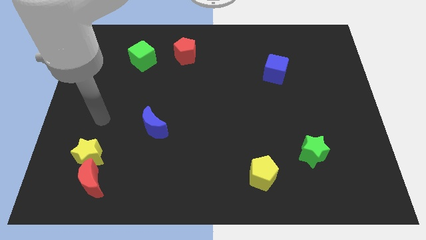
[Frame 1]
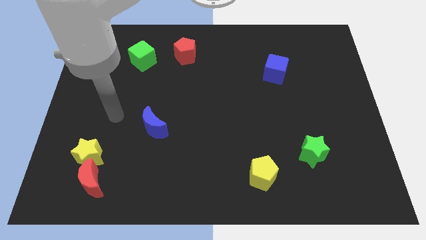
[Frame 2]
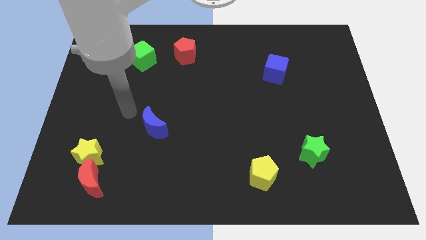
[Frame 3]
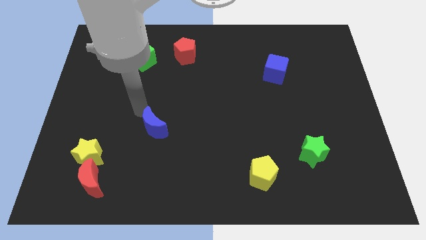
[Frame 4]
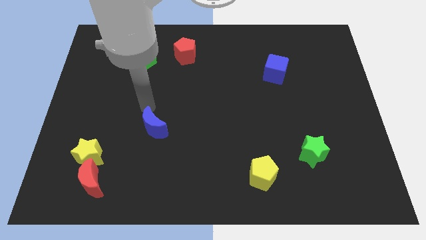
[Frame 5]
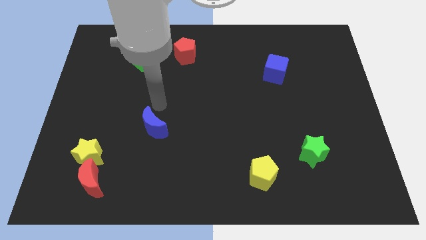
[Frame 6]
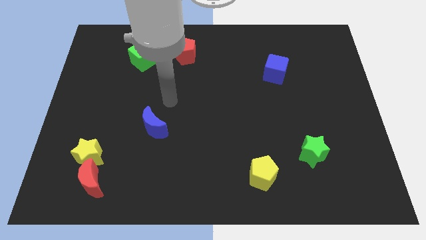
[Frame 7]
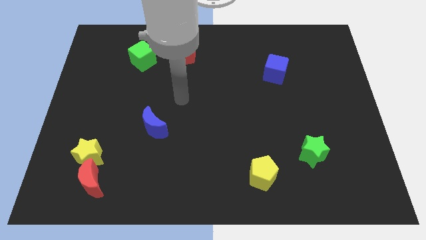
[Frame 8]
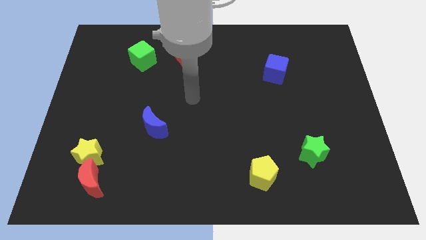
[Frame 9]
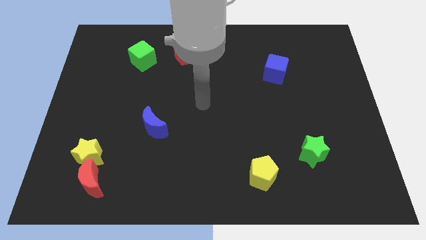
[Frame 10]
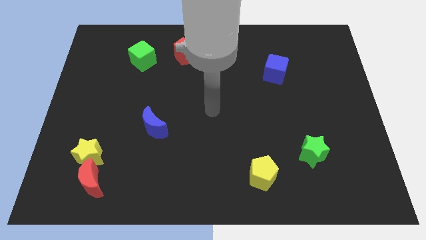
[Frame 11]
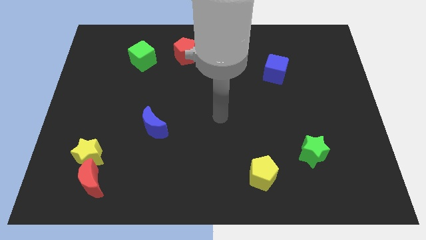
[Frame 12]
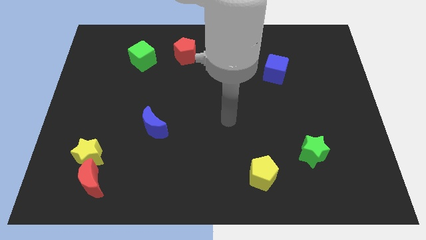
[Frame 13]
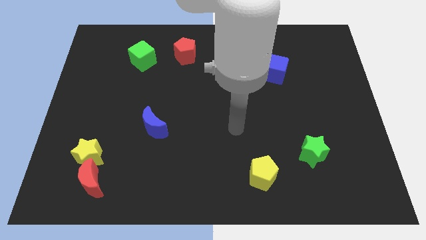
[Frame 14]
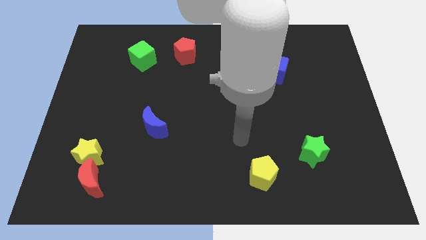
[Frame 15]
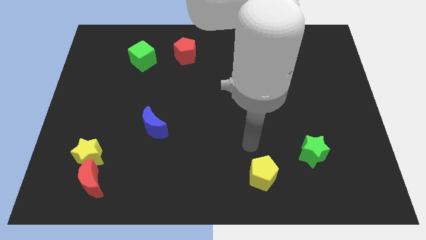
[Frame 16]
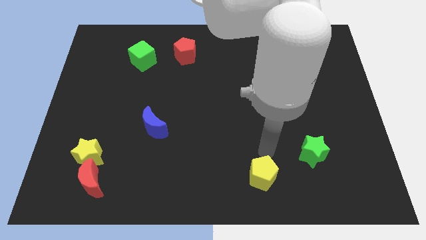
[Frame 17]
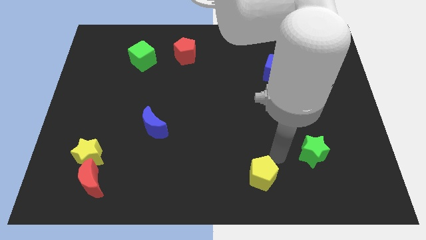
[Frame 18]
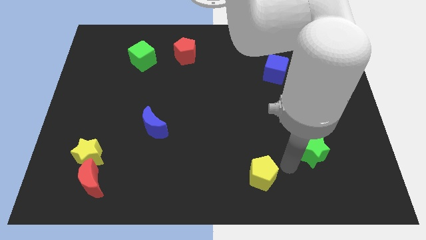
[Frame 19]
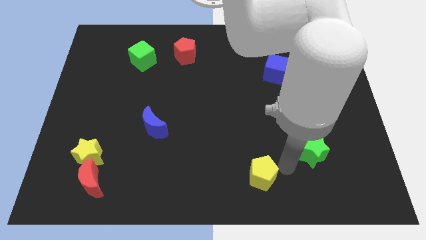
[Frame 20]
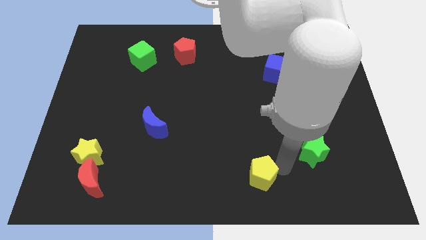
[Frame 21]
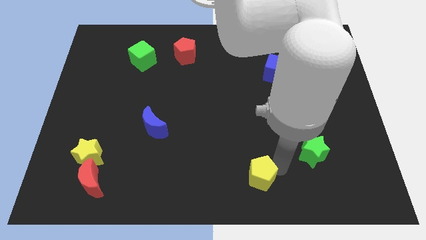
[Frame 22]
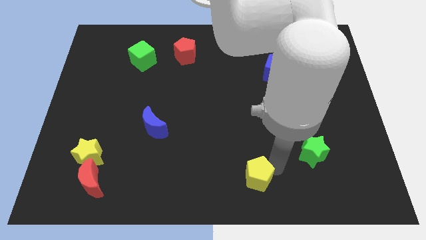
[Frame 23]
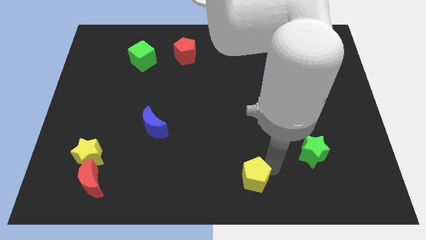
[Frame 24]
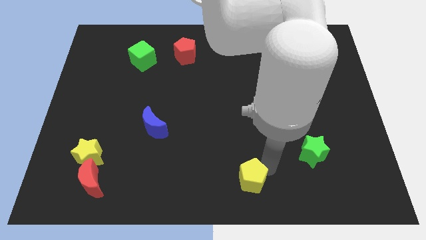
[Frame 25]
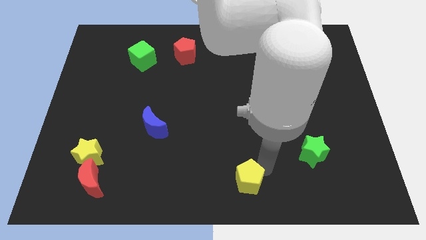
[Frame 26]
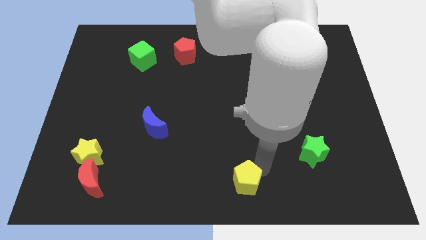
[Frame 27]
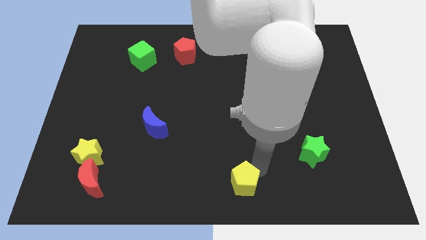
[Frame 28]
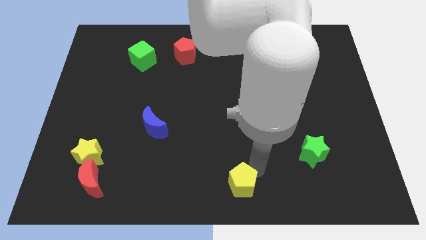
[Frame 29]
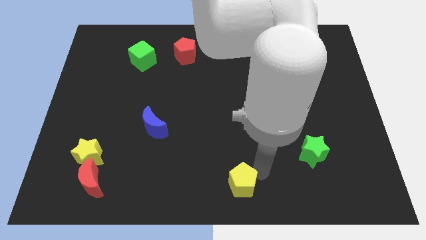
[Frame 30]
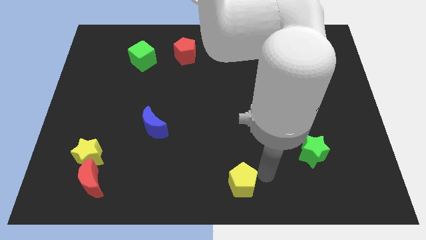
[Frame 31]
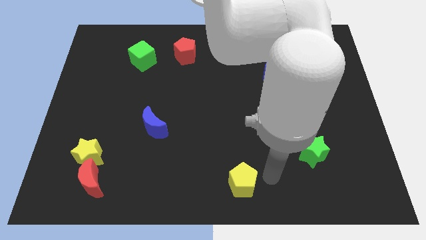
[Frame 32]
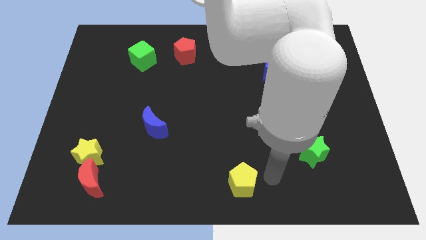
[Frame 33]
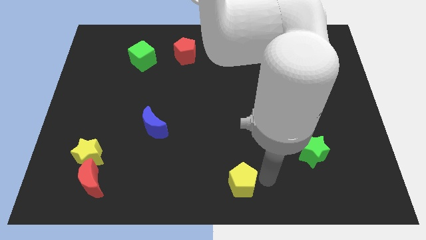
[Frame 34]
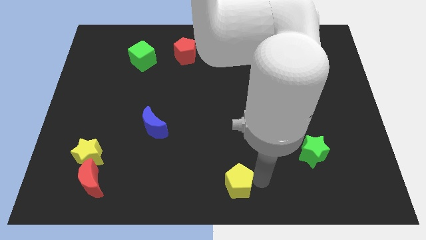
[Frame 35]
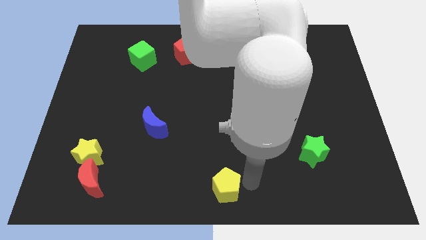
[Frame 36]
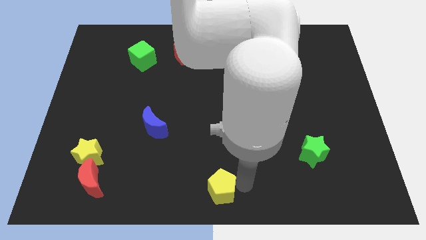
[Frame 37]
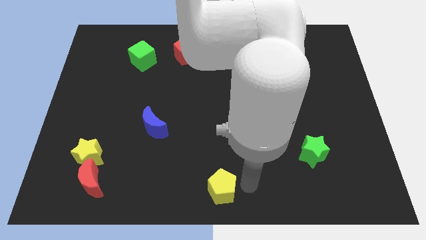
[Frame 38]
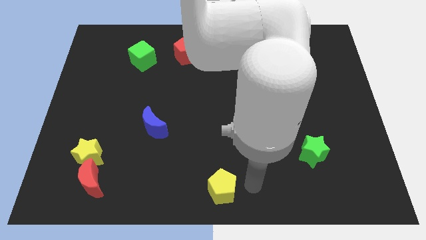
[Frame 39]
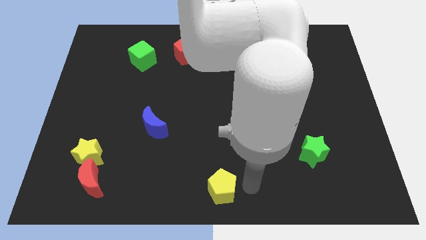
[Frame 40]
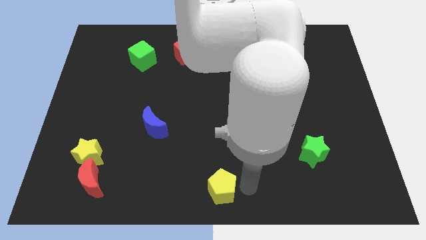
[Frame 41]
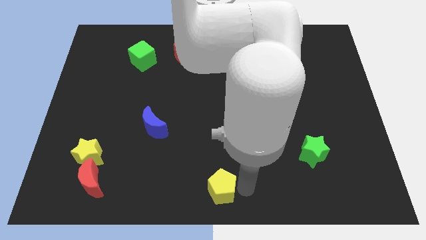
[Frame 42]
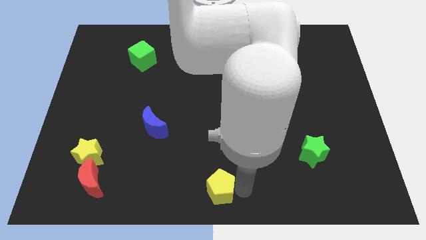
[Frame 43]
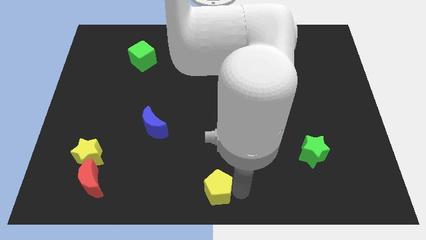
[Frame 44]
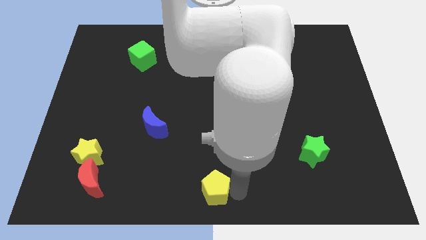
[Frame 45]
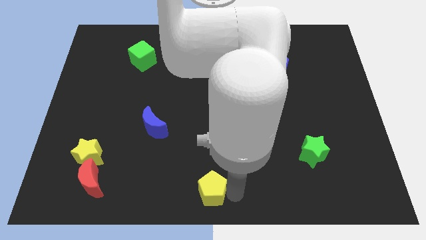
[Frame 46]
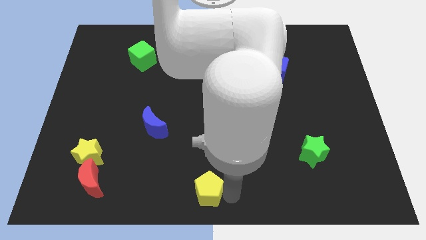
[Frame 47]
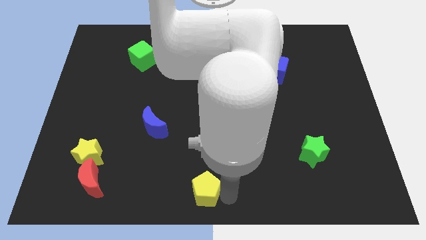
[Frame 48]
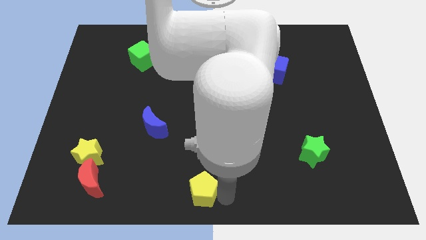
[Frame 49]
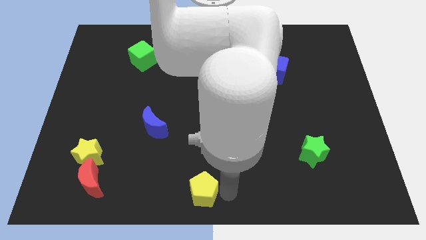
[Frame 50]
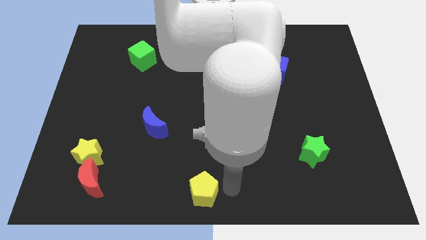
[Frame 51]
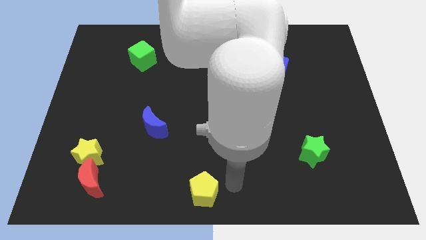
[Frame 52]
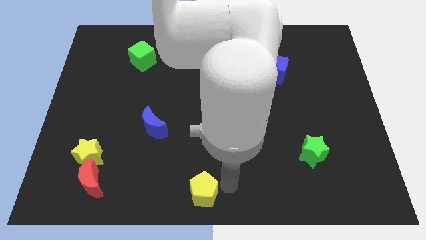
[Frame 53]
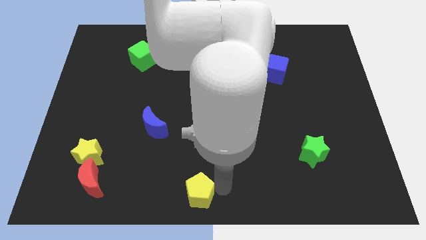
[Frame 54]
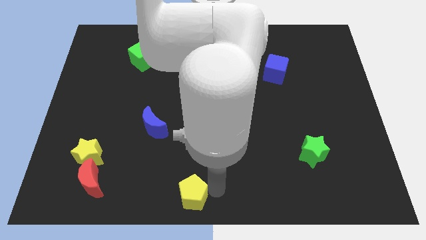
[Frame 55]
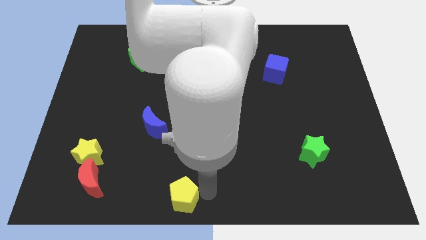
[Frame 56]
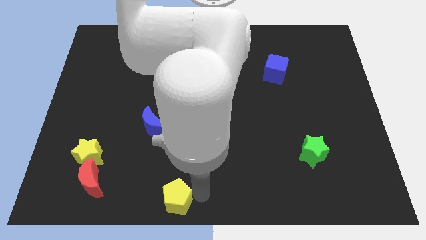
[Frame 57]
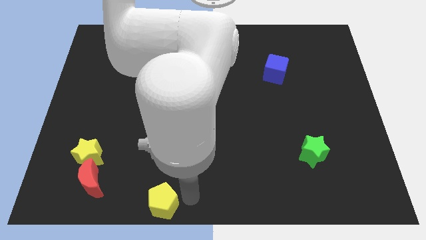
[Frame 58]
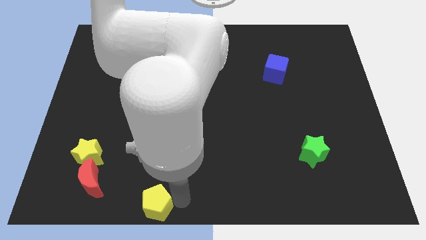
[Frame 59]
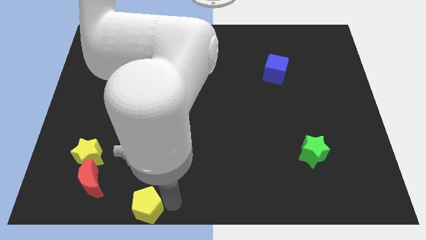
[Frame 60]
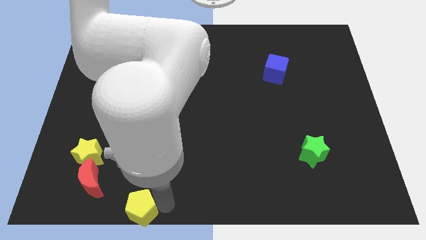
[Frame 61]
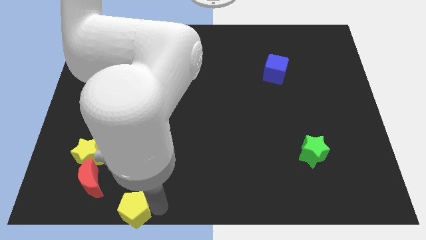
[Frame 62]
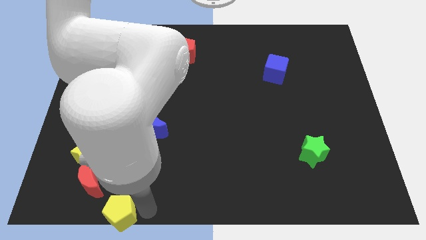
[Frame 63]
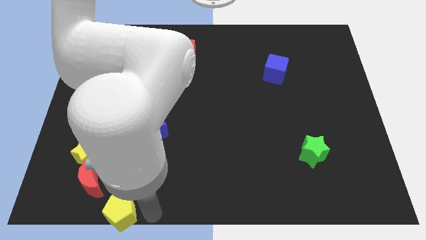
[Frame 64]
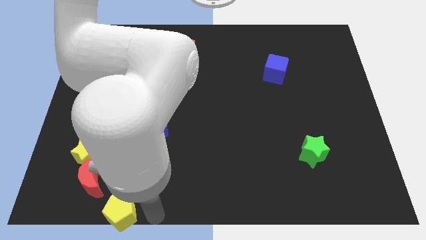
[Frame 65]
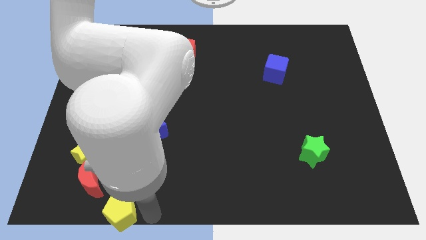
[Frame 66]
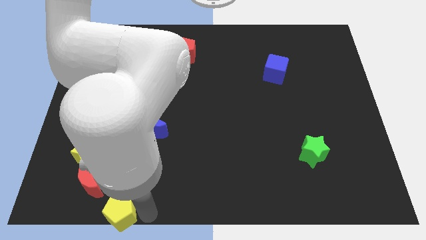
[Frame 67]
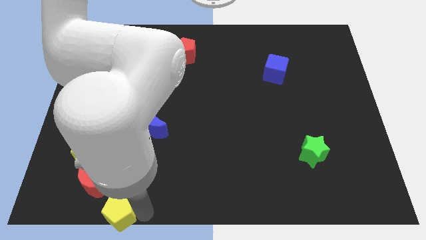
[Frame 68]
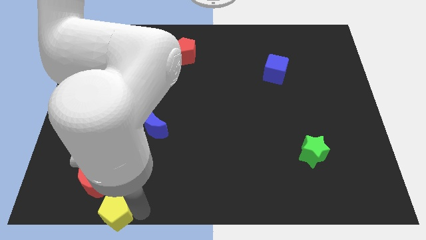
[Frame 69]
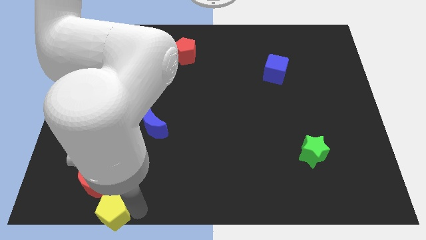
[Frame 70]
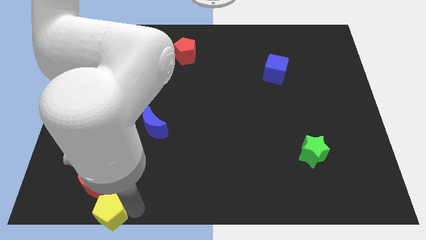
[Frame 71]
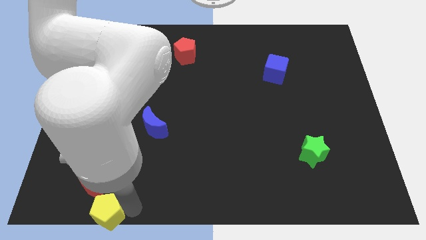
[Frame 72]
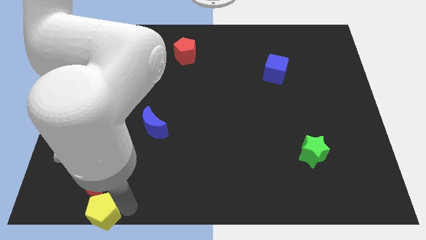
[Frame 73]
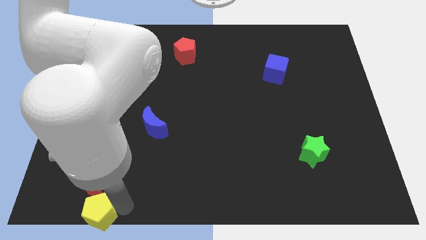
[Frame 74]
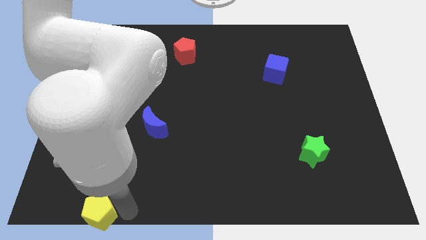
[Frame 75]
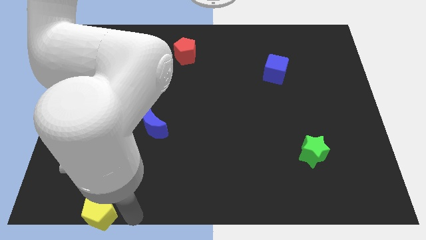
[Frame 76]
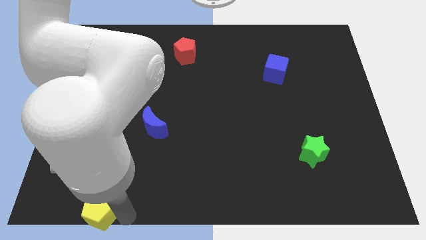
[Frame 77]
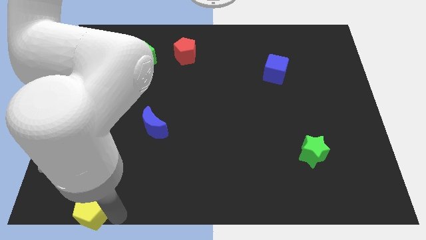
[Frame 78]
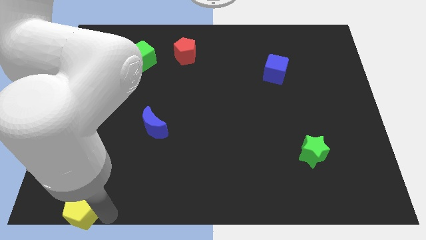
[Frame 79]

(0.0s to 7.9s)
move the yellow pentagon to the bottom left
